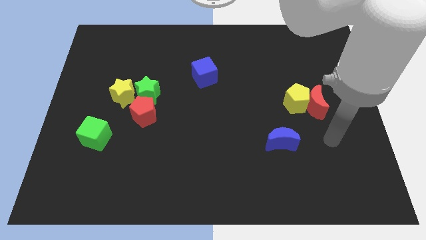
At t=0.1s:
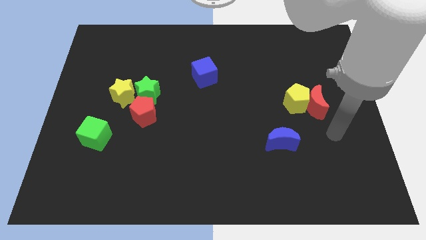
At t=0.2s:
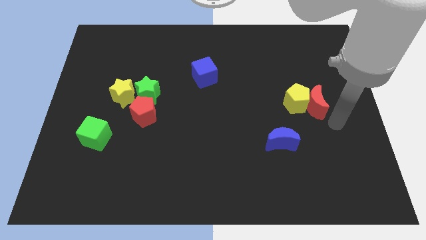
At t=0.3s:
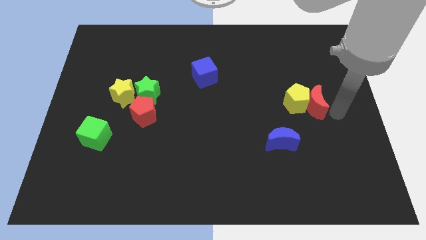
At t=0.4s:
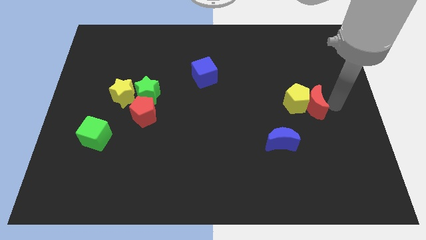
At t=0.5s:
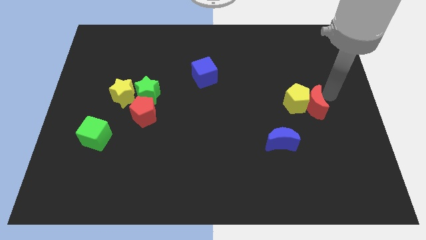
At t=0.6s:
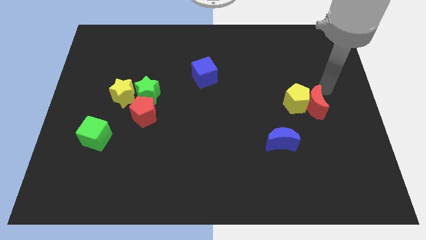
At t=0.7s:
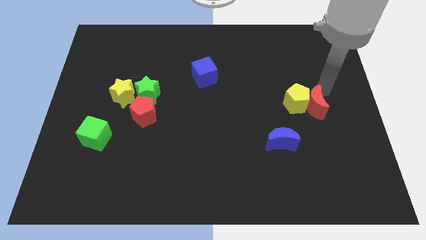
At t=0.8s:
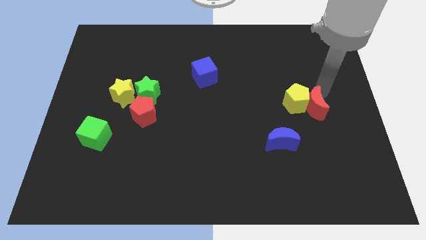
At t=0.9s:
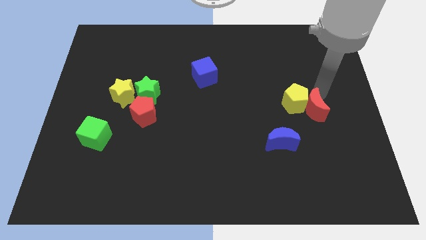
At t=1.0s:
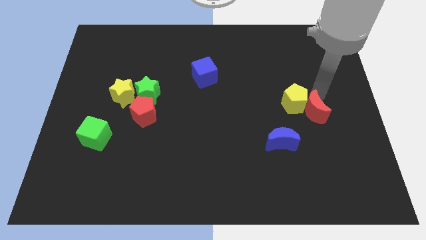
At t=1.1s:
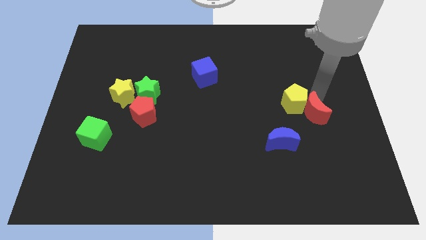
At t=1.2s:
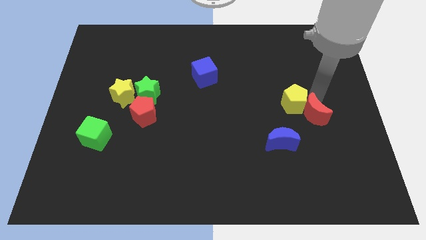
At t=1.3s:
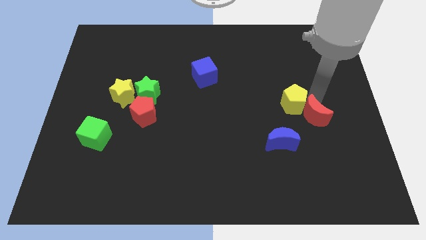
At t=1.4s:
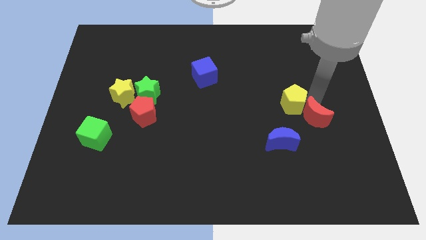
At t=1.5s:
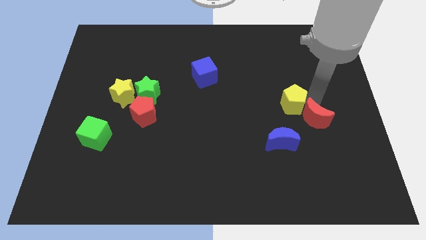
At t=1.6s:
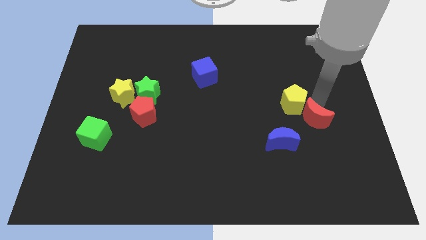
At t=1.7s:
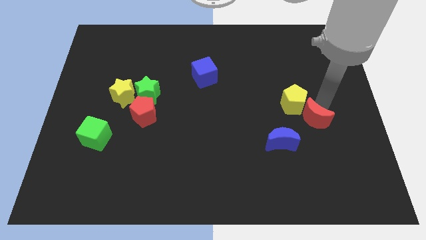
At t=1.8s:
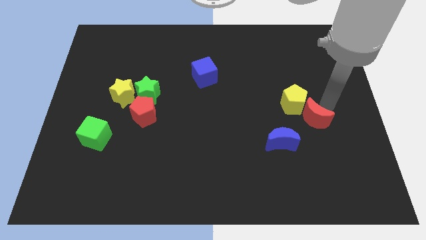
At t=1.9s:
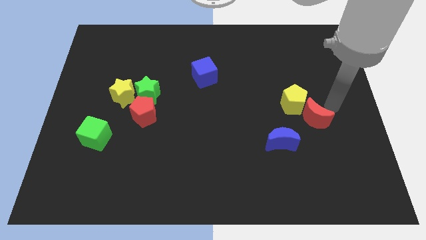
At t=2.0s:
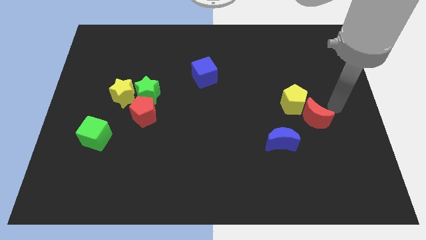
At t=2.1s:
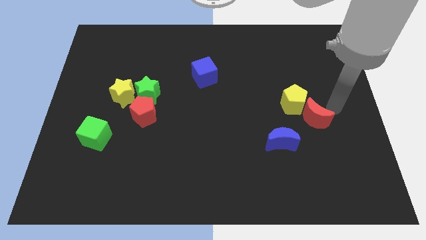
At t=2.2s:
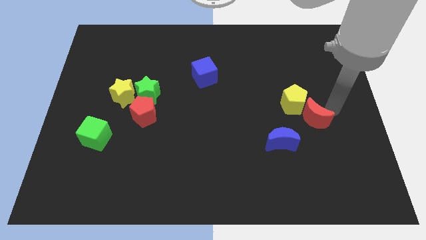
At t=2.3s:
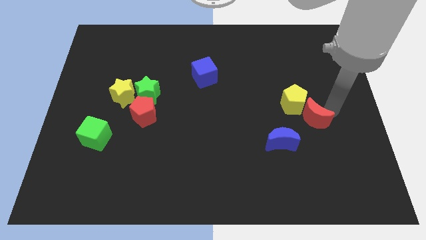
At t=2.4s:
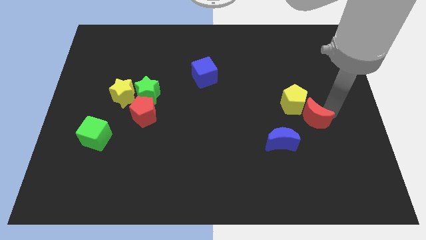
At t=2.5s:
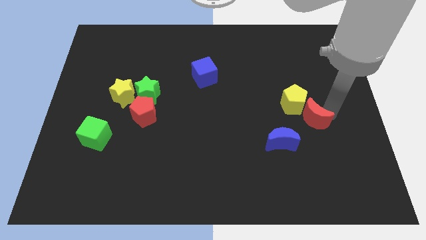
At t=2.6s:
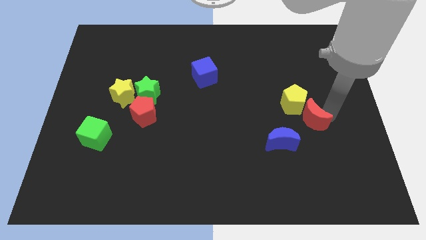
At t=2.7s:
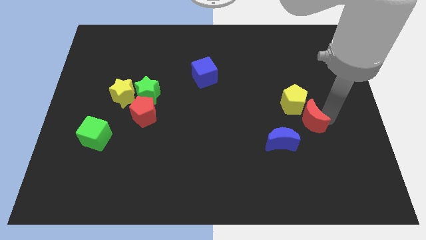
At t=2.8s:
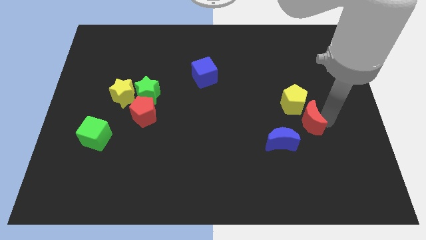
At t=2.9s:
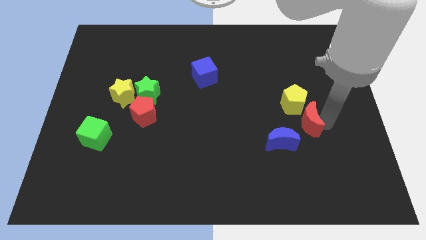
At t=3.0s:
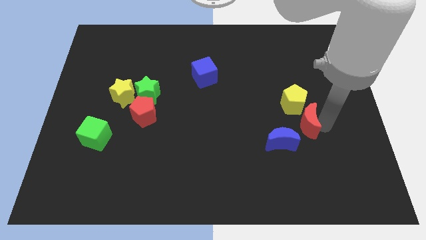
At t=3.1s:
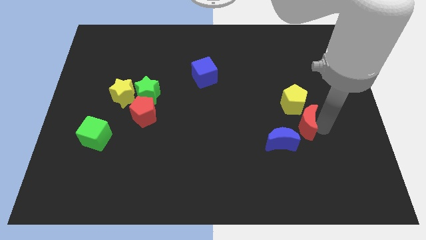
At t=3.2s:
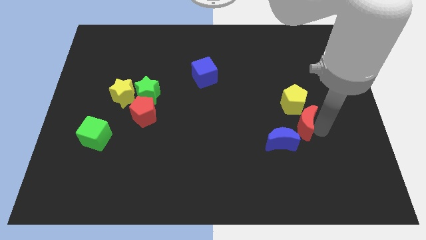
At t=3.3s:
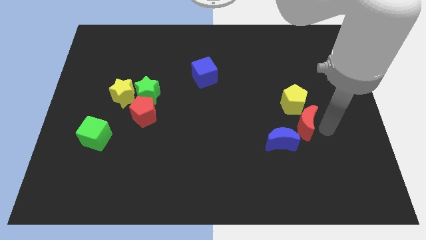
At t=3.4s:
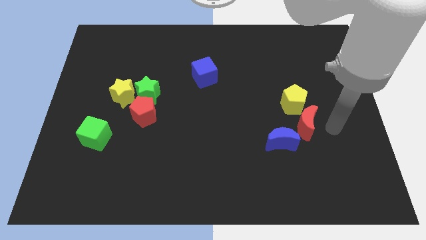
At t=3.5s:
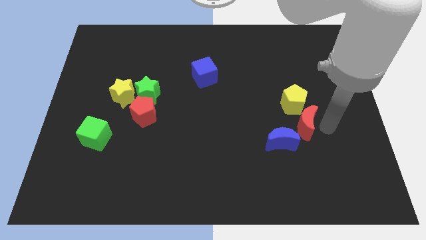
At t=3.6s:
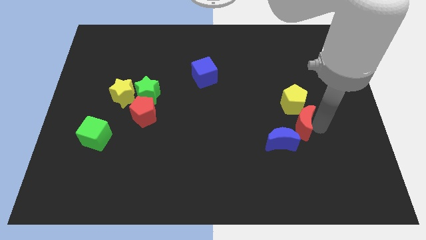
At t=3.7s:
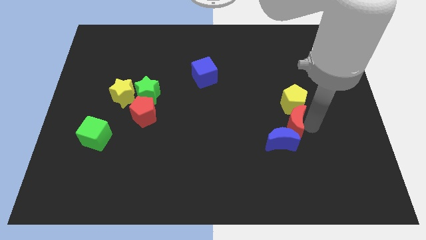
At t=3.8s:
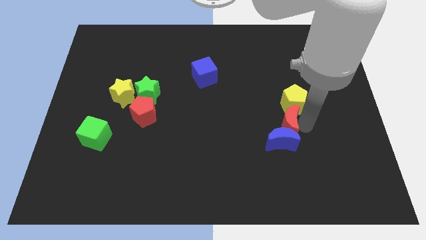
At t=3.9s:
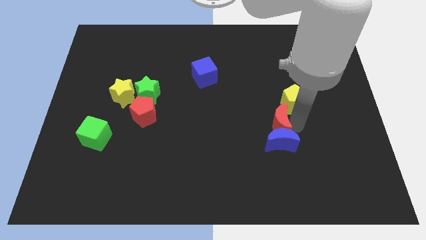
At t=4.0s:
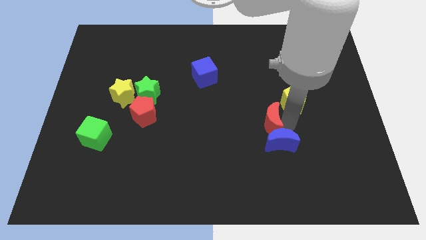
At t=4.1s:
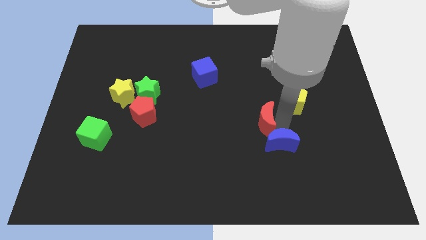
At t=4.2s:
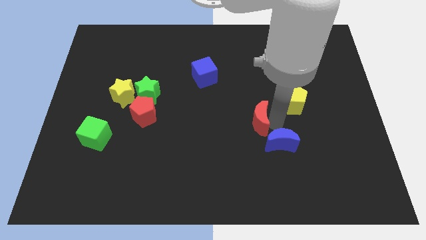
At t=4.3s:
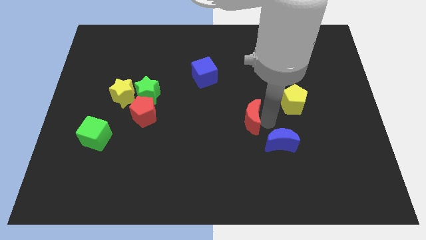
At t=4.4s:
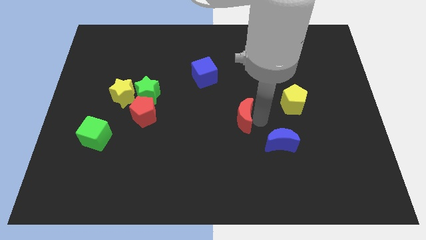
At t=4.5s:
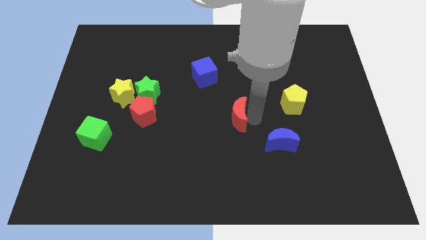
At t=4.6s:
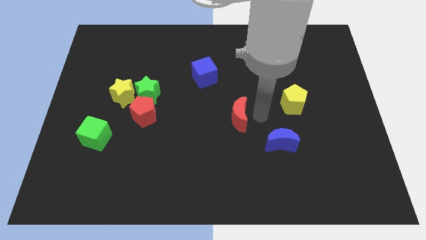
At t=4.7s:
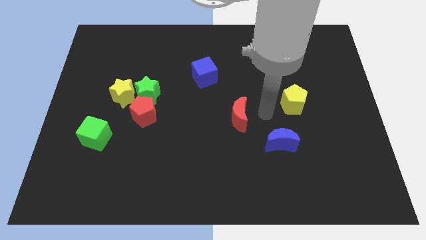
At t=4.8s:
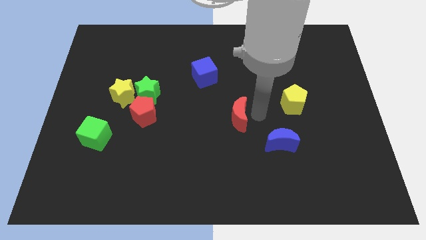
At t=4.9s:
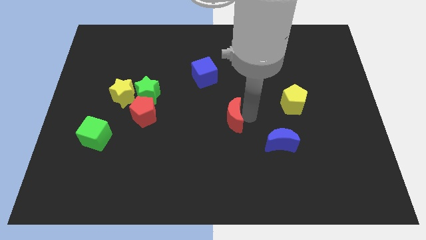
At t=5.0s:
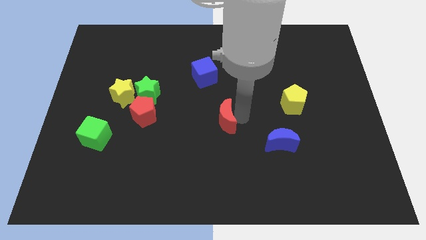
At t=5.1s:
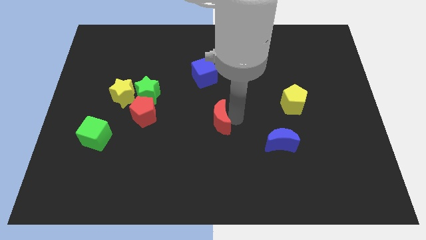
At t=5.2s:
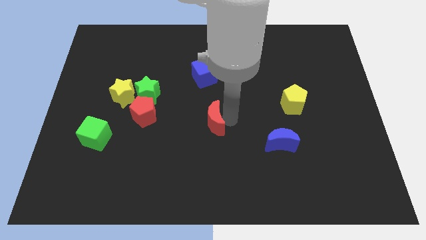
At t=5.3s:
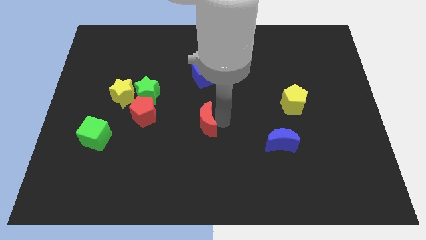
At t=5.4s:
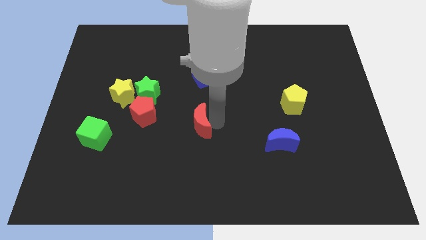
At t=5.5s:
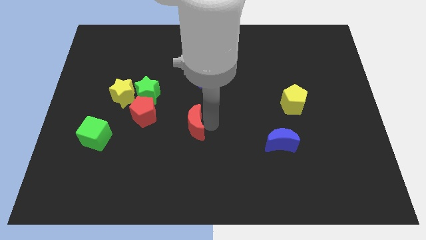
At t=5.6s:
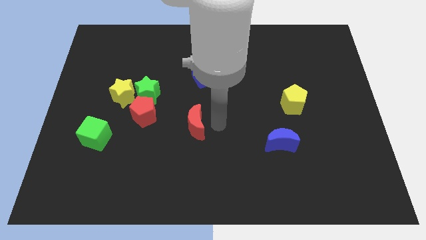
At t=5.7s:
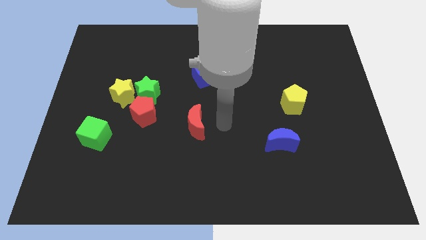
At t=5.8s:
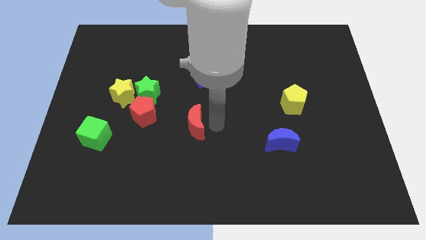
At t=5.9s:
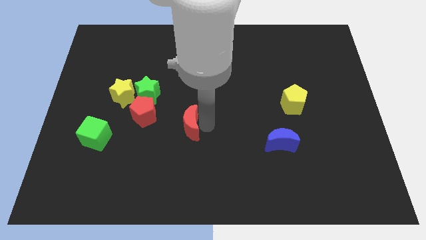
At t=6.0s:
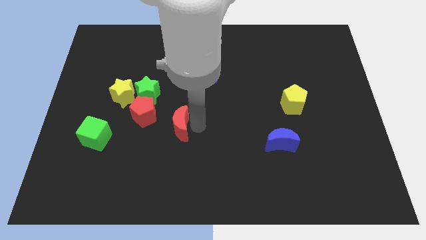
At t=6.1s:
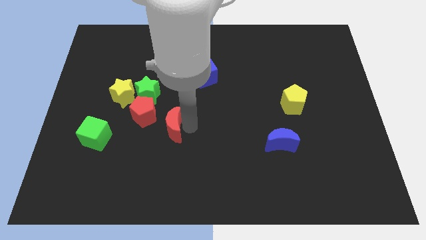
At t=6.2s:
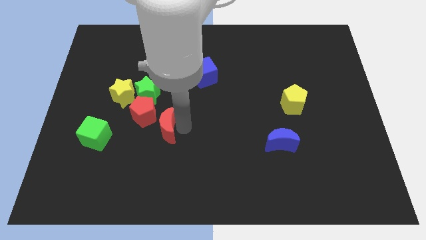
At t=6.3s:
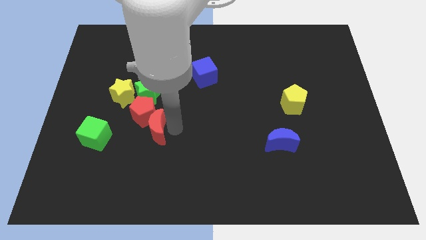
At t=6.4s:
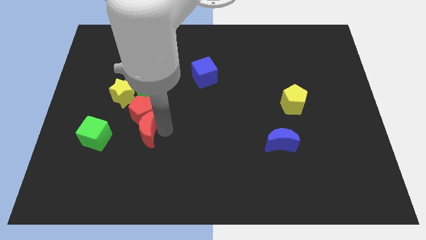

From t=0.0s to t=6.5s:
put the red moon diagonally down and to the left of the red pentagon
